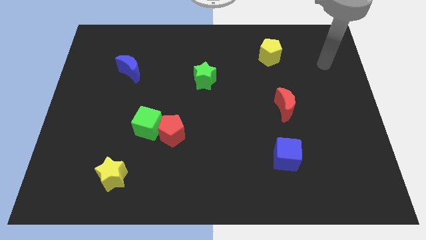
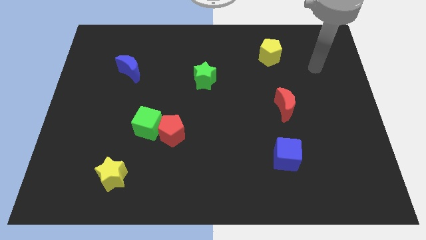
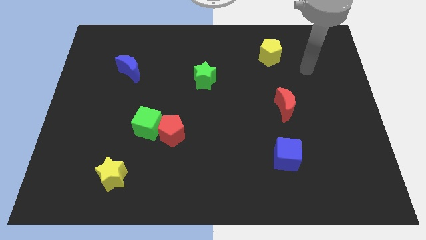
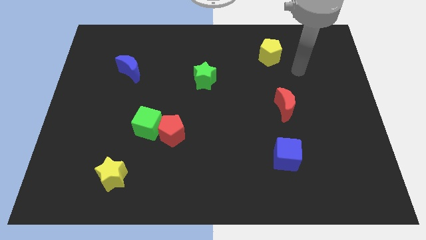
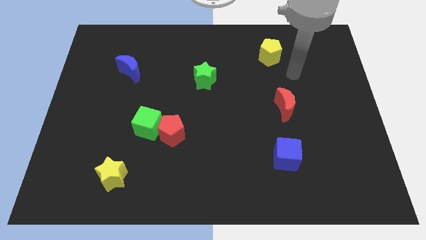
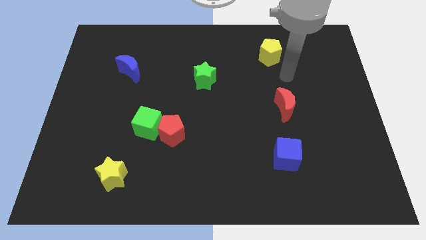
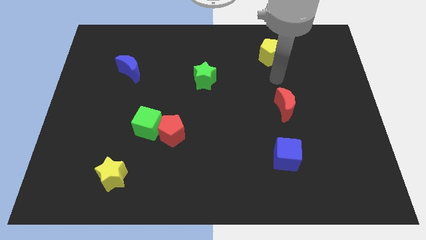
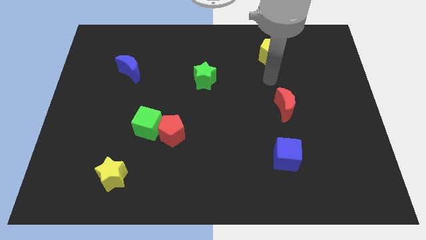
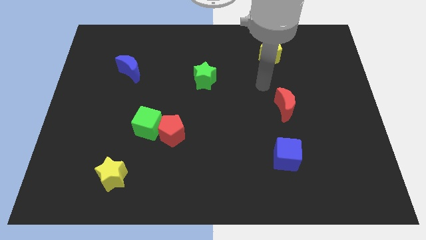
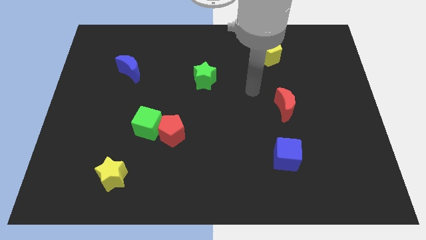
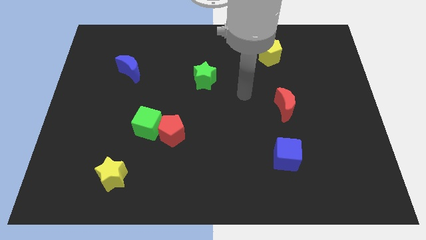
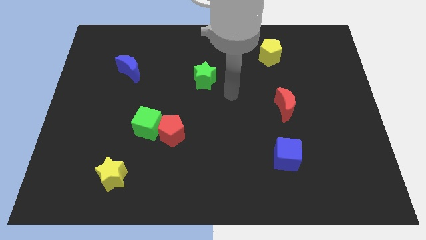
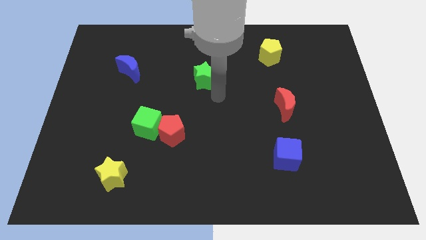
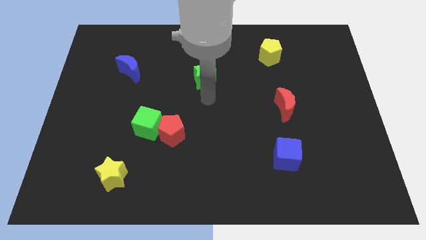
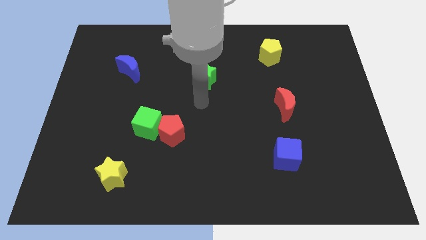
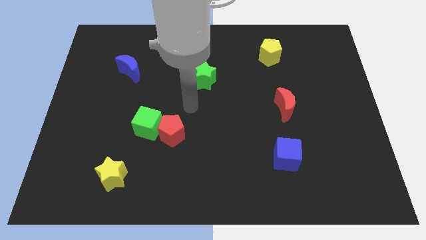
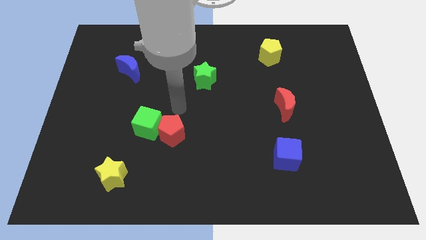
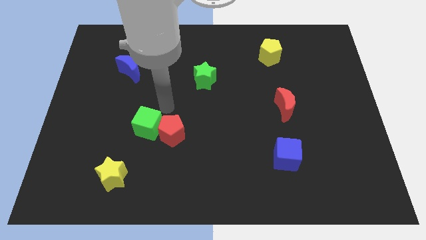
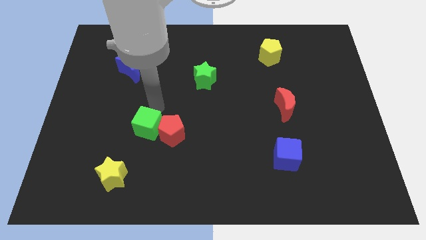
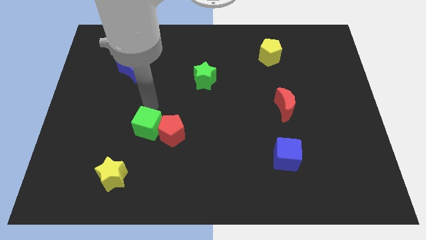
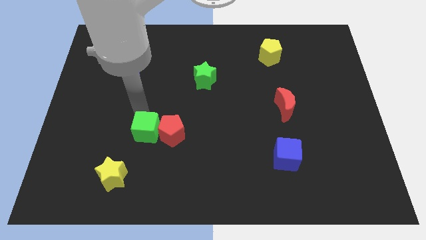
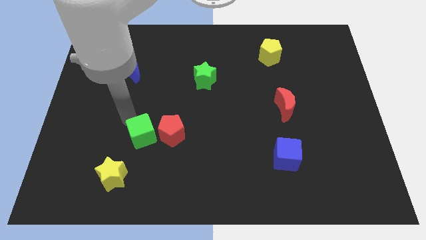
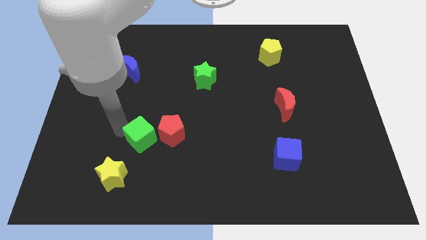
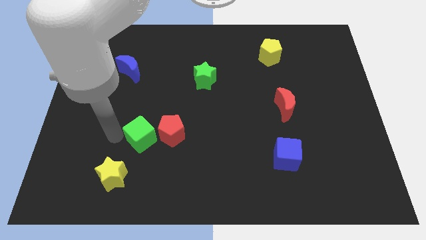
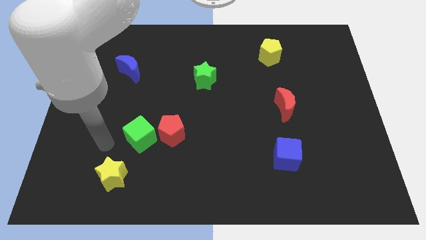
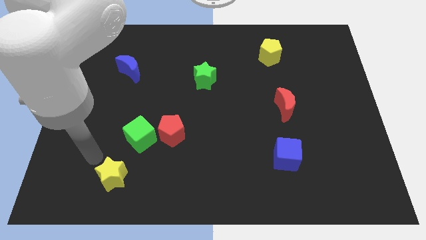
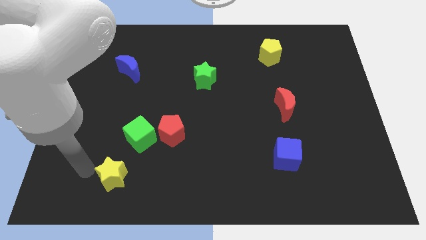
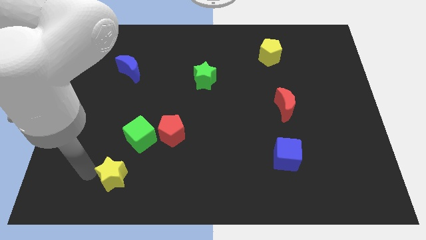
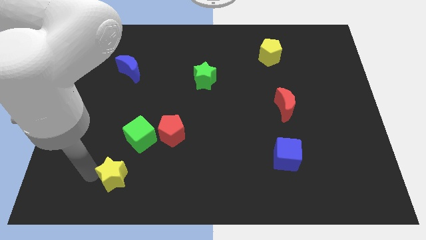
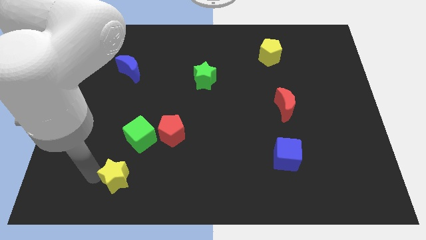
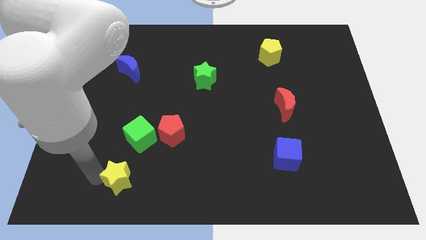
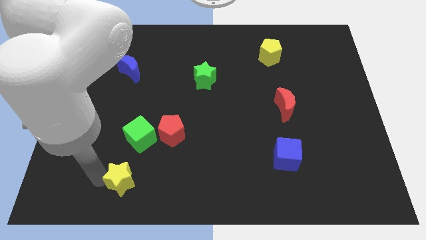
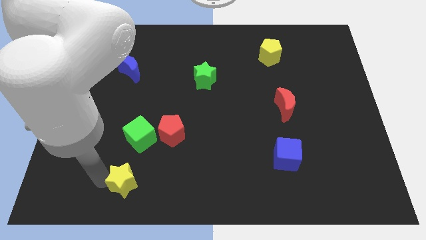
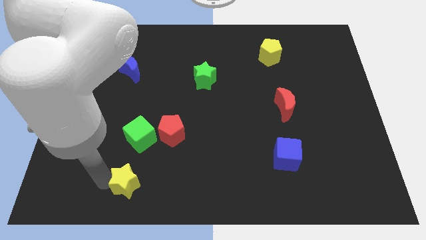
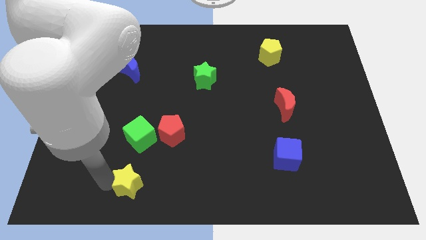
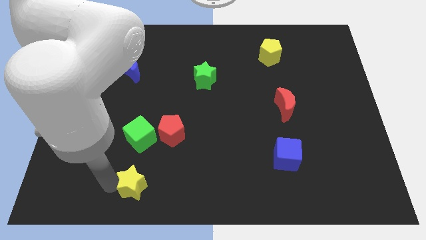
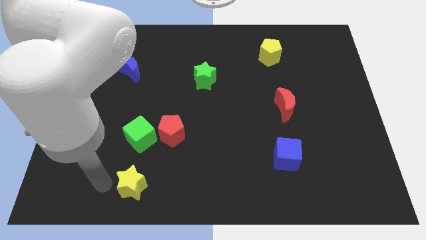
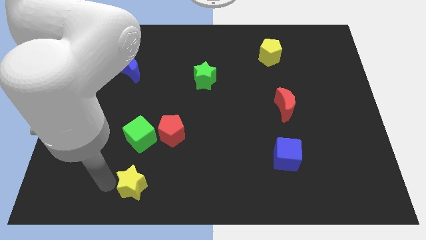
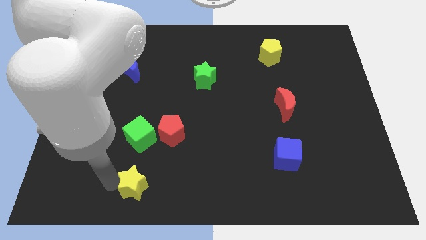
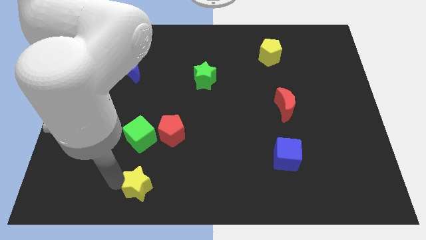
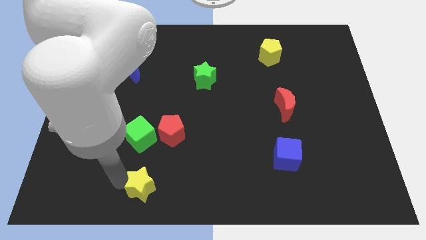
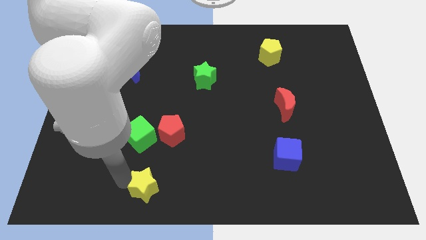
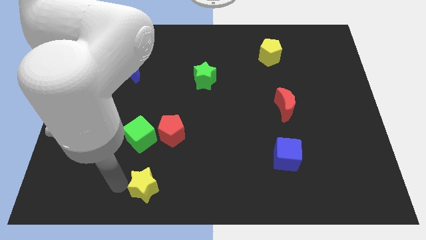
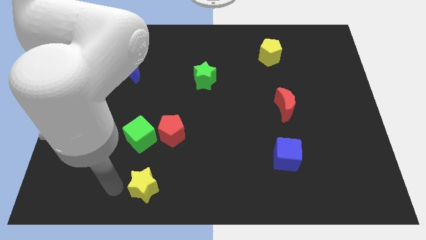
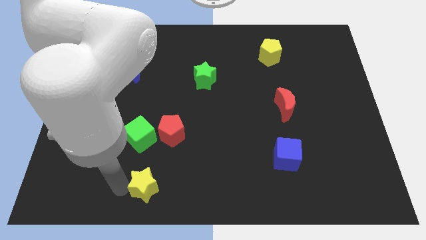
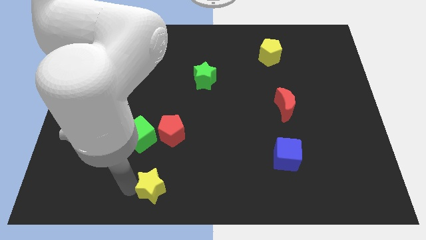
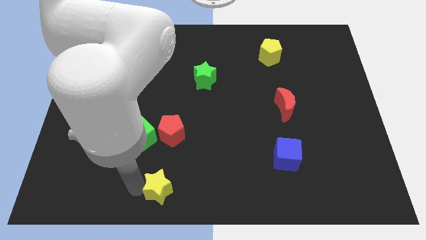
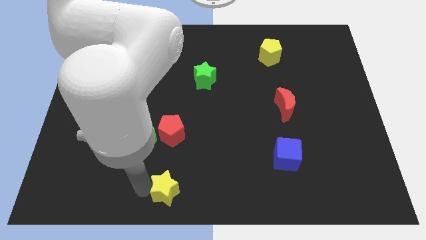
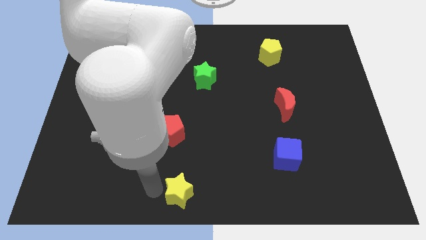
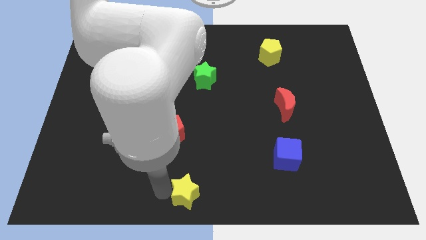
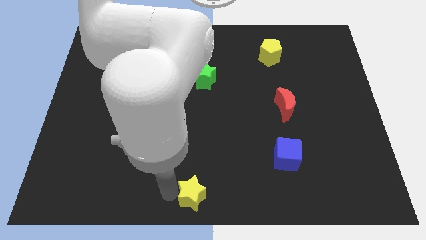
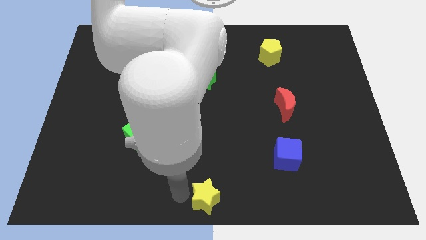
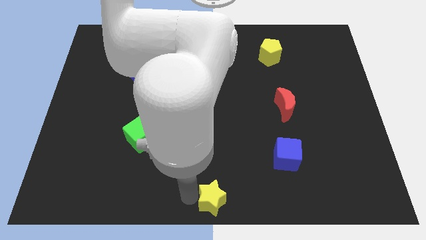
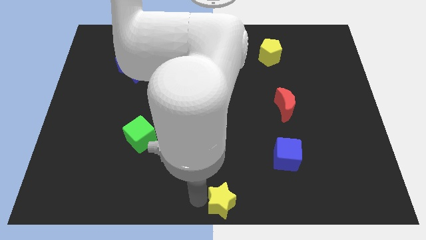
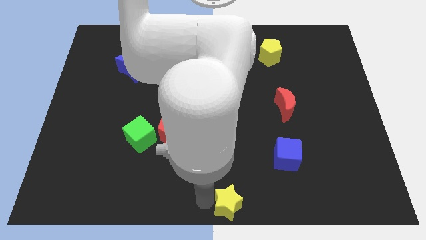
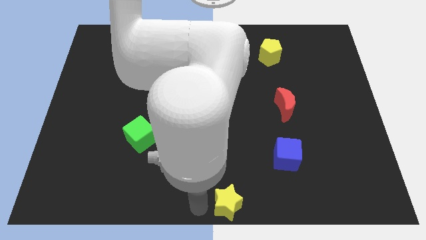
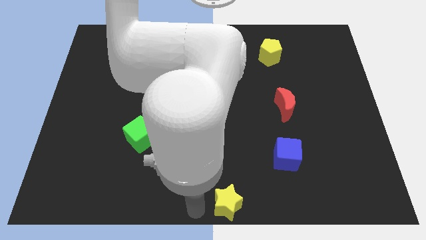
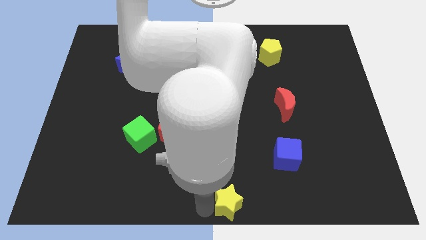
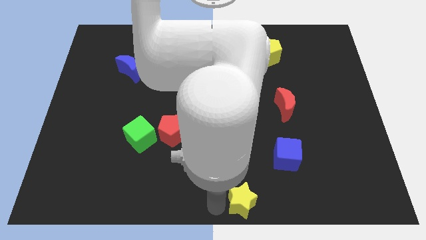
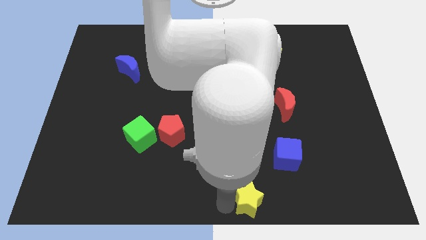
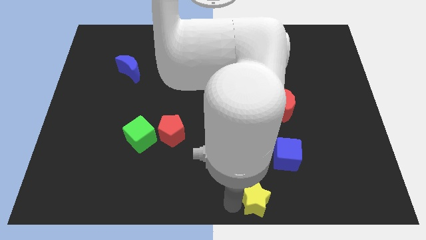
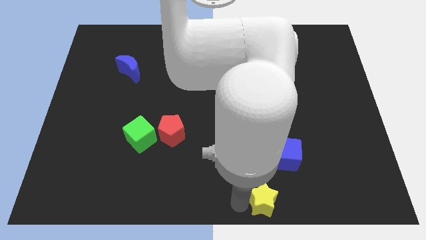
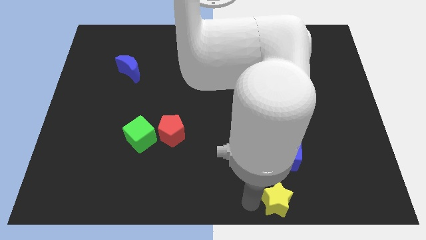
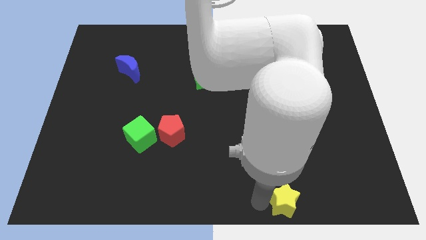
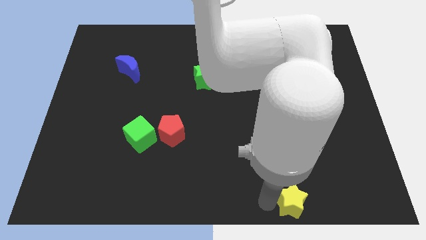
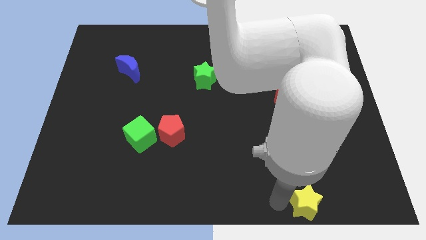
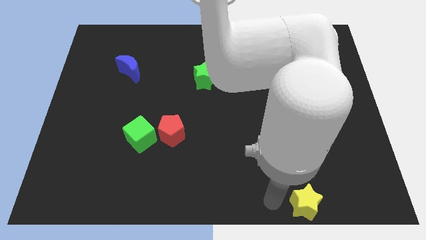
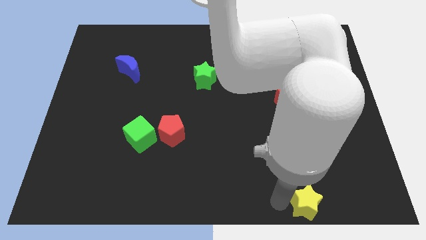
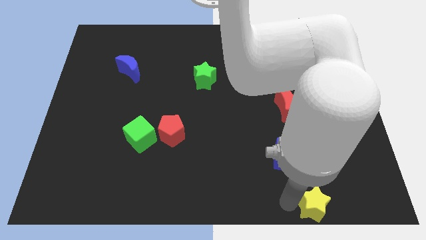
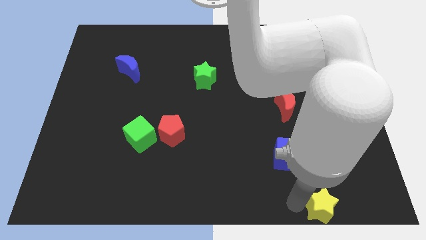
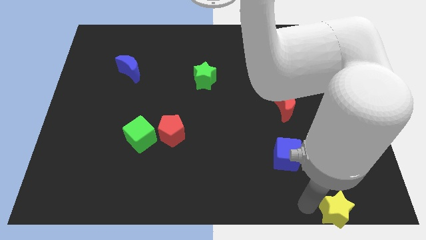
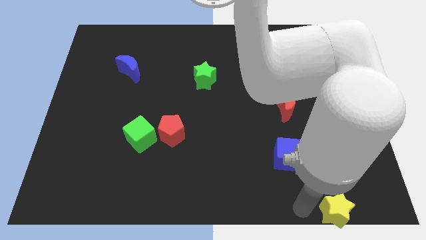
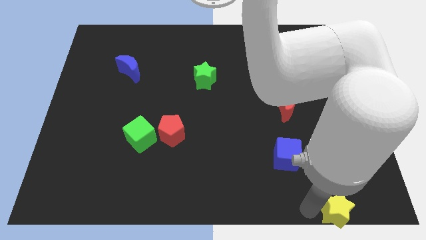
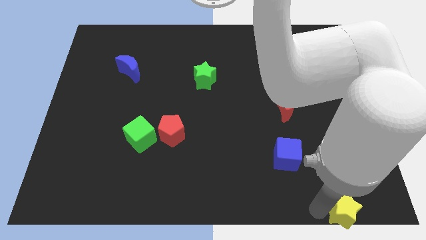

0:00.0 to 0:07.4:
put the yellow star to the bottom right of the board
